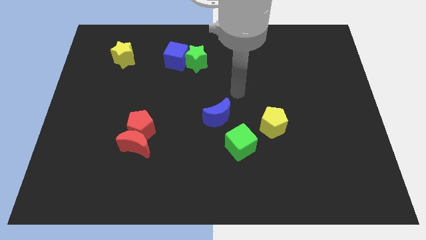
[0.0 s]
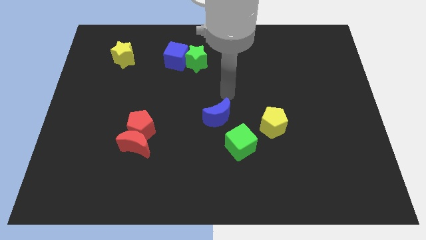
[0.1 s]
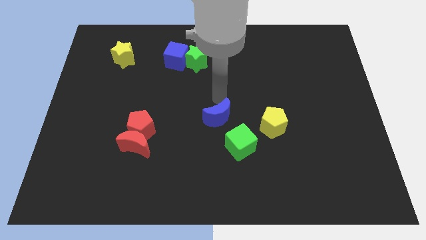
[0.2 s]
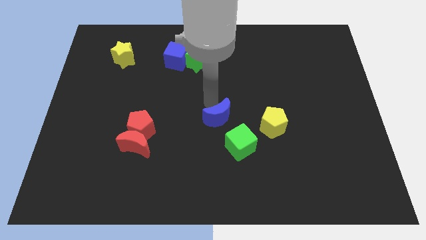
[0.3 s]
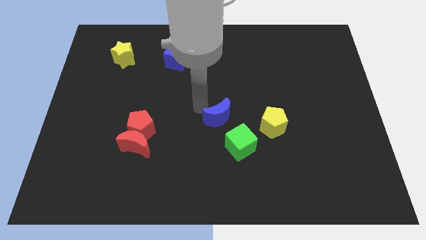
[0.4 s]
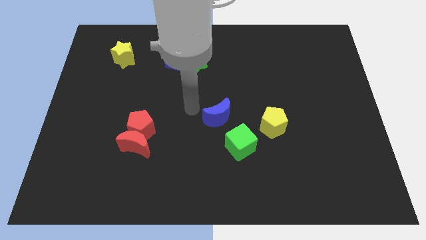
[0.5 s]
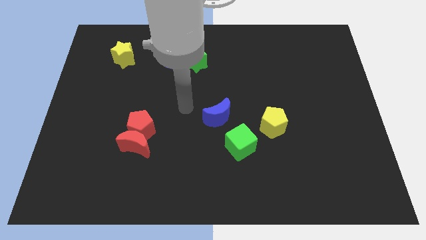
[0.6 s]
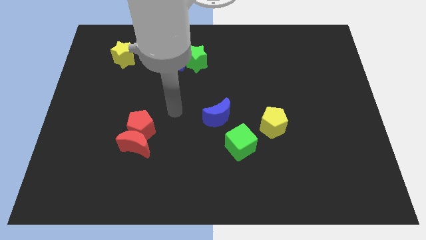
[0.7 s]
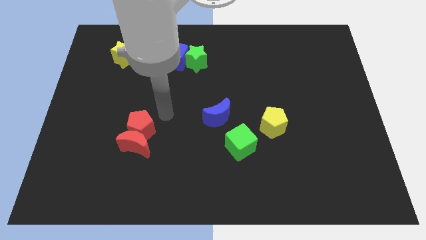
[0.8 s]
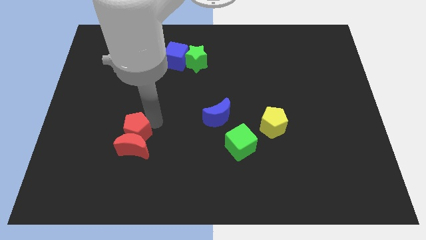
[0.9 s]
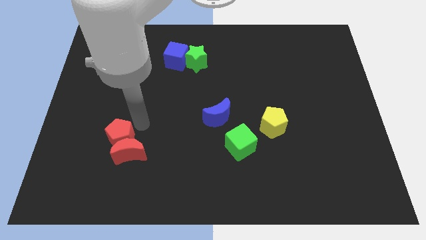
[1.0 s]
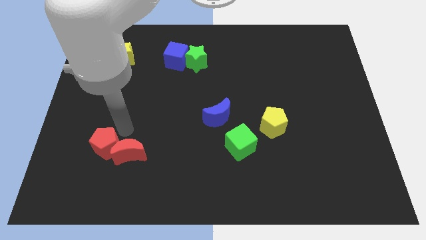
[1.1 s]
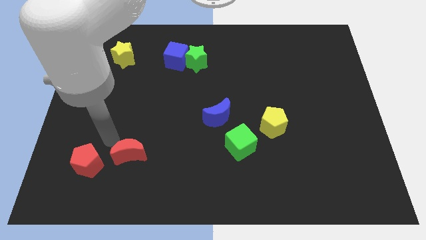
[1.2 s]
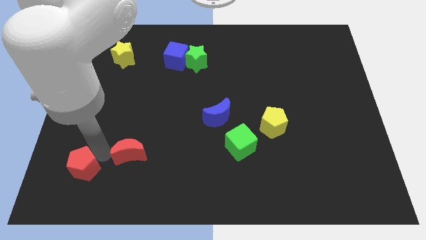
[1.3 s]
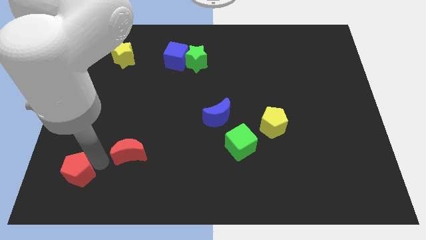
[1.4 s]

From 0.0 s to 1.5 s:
move the red moon away from the red pentagon

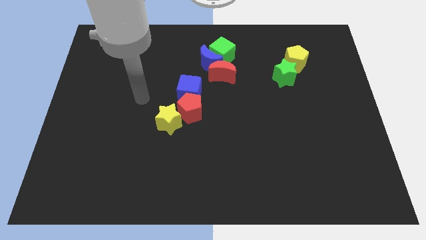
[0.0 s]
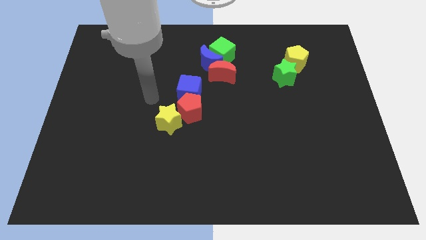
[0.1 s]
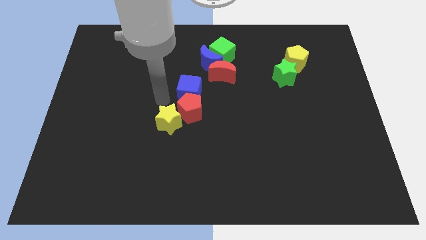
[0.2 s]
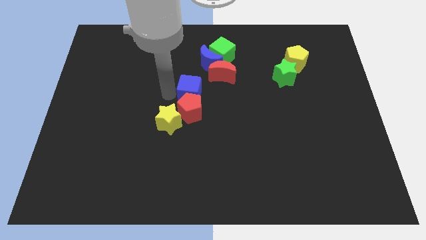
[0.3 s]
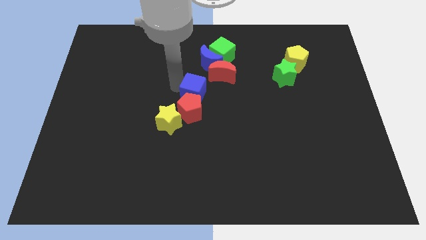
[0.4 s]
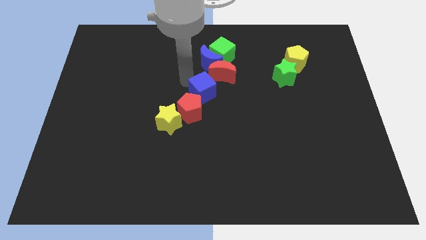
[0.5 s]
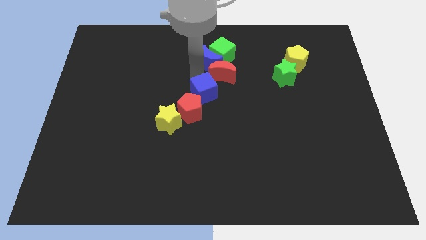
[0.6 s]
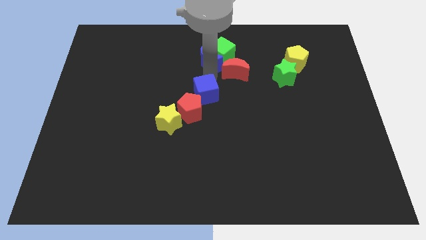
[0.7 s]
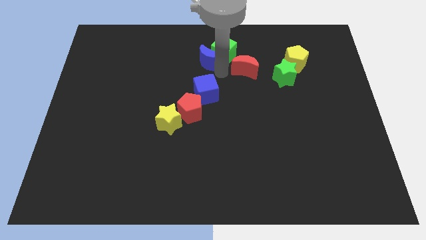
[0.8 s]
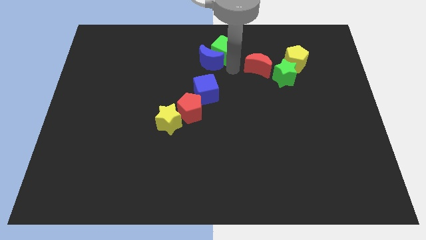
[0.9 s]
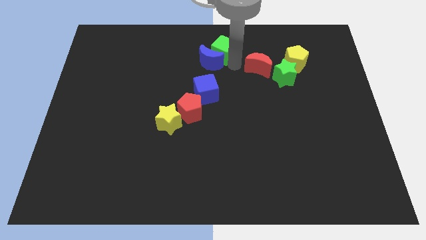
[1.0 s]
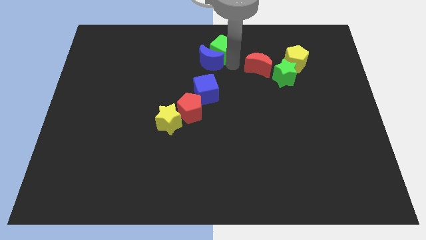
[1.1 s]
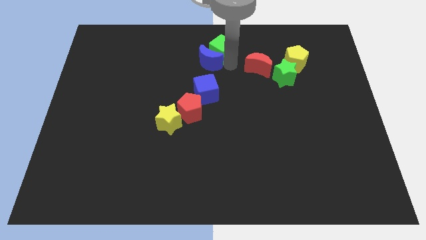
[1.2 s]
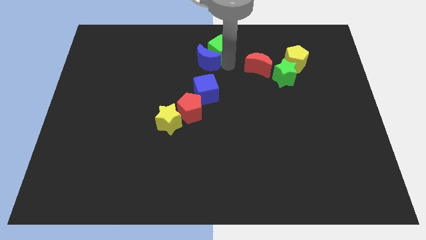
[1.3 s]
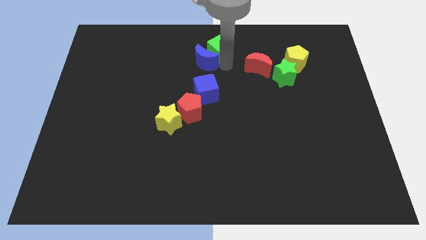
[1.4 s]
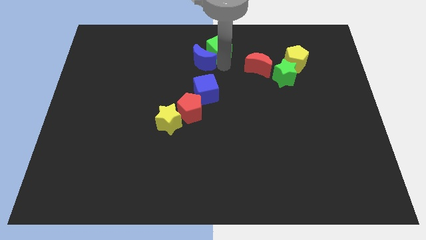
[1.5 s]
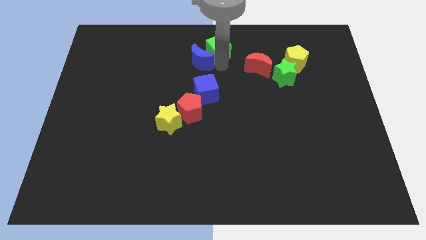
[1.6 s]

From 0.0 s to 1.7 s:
pull the blue moon apart from the green cube and red moon

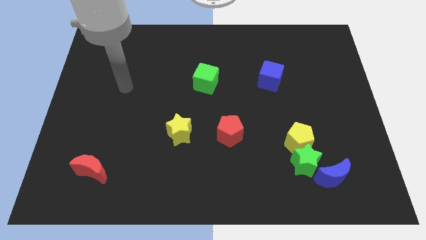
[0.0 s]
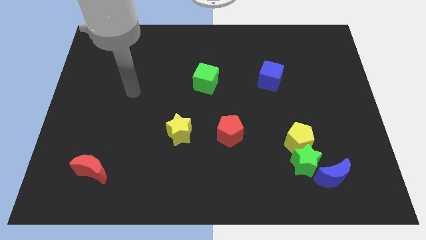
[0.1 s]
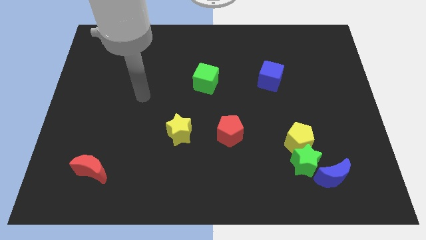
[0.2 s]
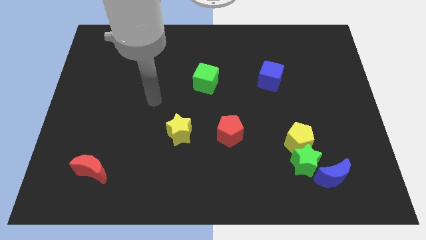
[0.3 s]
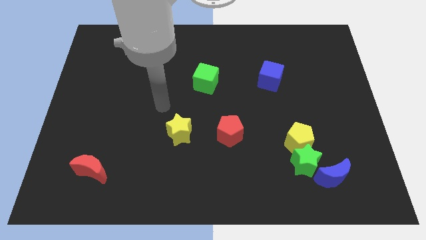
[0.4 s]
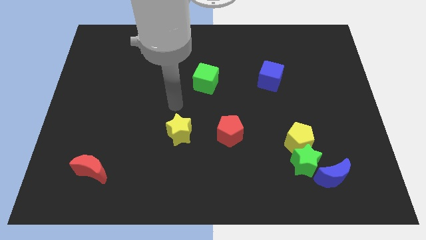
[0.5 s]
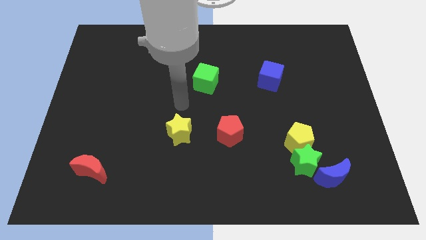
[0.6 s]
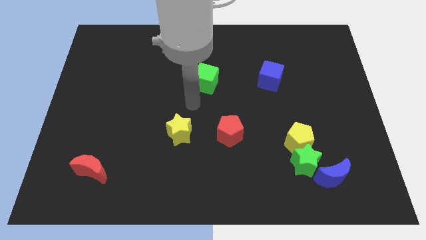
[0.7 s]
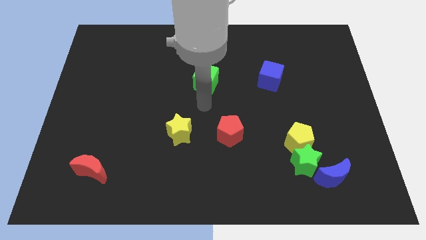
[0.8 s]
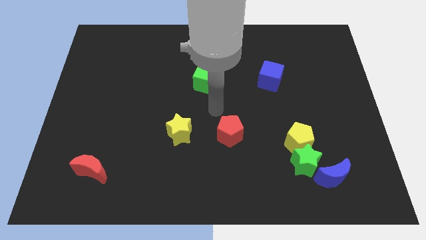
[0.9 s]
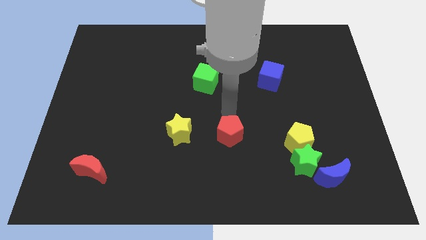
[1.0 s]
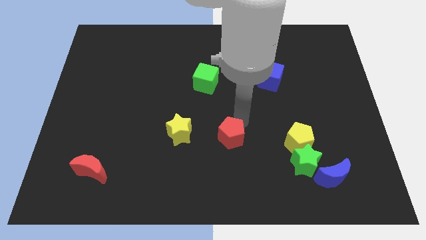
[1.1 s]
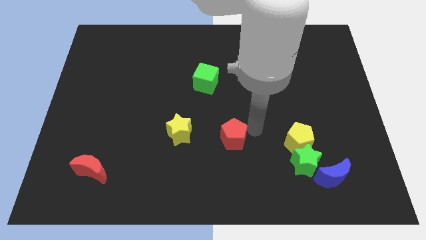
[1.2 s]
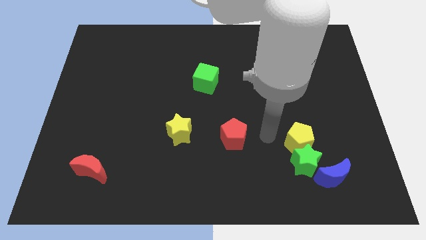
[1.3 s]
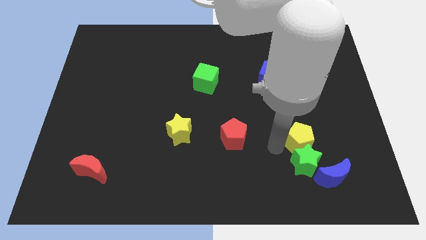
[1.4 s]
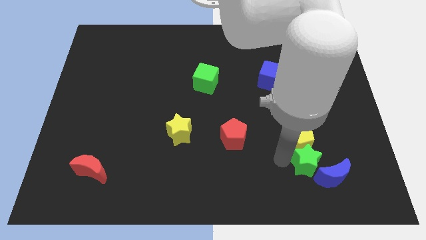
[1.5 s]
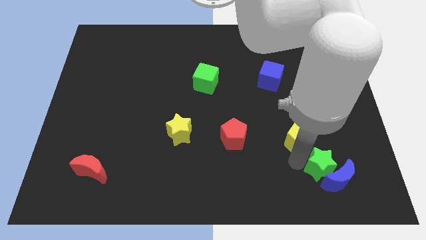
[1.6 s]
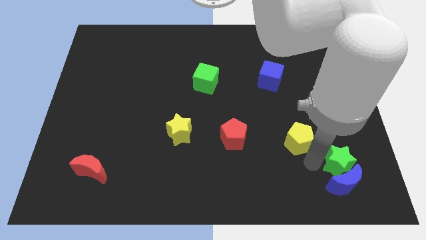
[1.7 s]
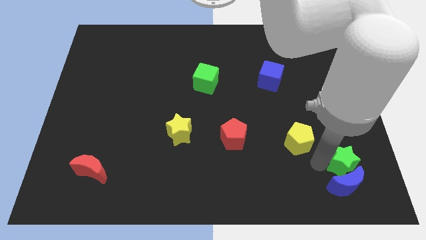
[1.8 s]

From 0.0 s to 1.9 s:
move the yellow pentagon away from the green star

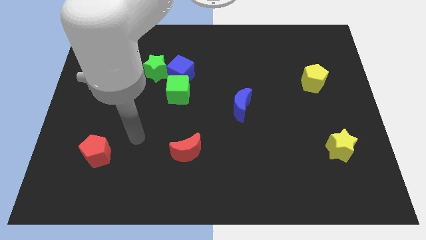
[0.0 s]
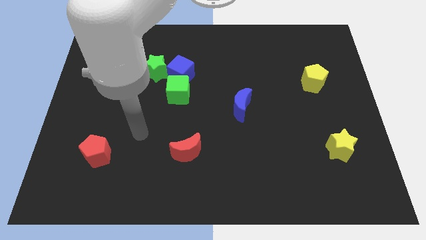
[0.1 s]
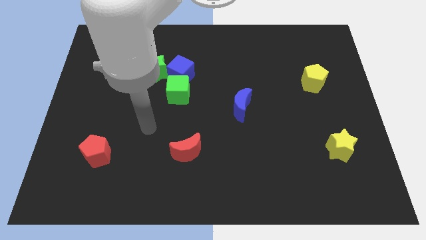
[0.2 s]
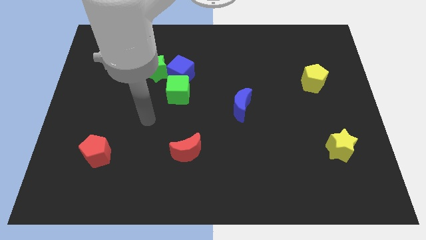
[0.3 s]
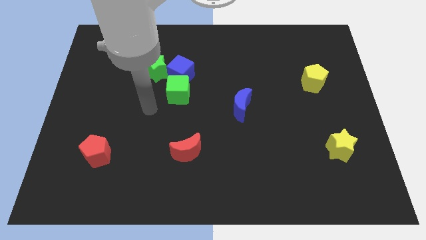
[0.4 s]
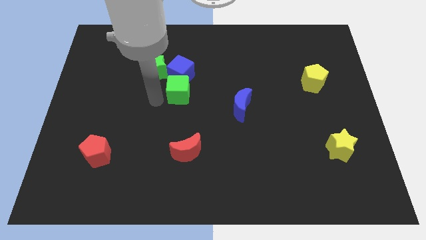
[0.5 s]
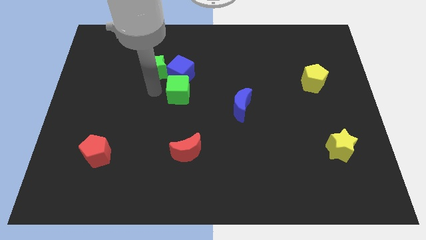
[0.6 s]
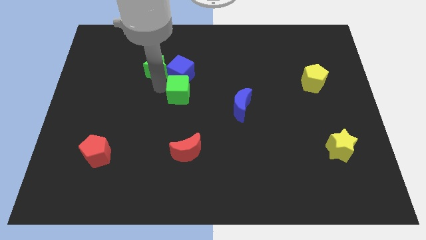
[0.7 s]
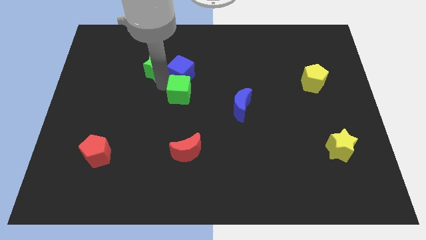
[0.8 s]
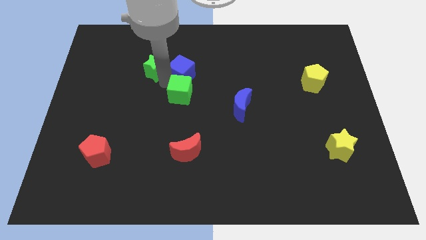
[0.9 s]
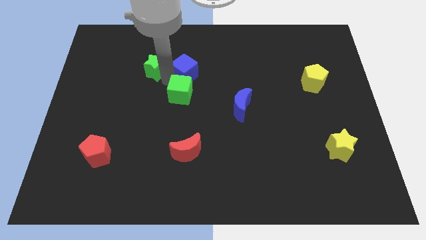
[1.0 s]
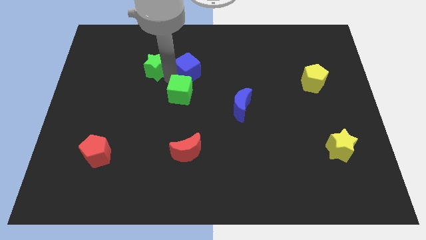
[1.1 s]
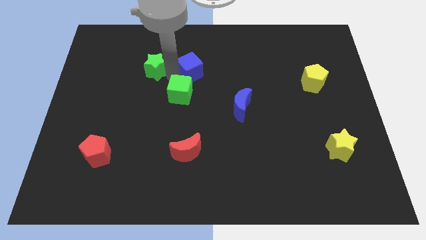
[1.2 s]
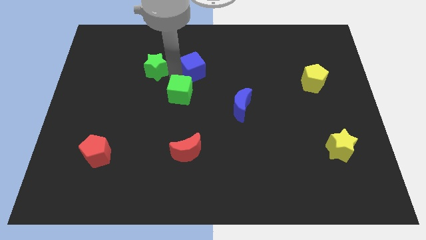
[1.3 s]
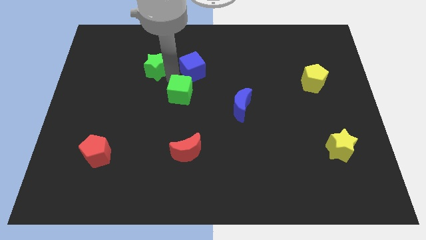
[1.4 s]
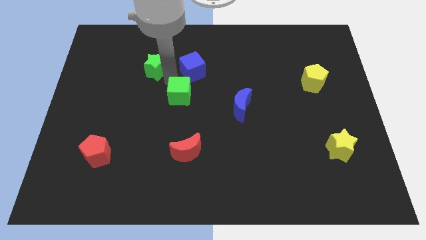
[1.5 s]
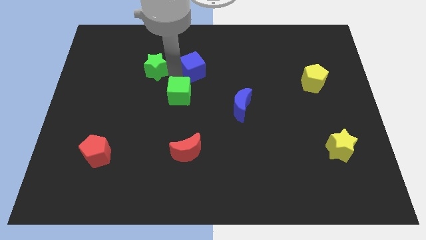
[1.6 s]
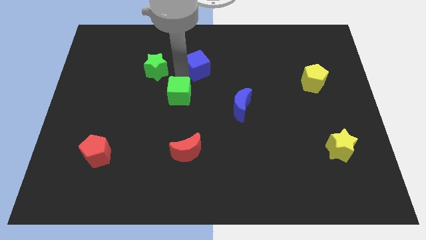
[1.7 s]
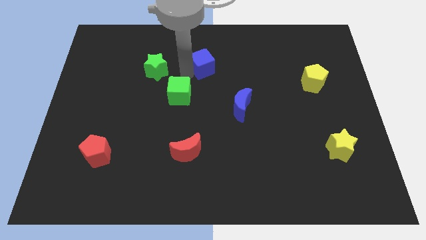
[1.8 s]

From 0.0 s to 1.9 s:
move the blue cube away from the green cube and green star

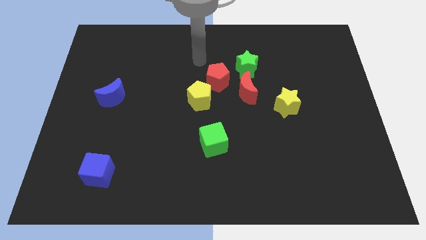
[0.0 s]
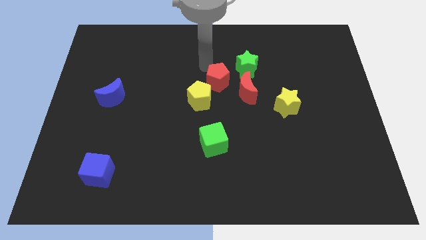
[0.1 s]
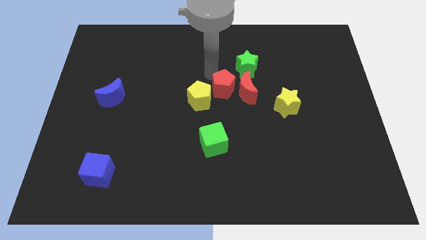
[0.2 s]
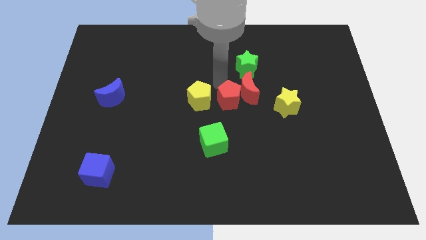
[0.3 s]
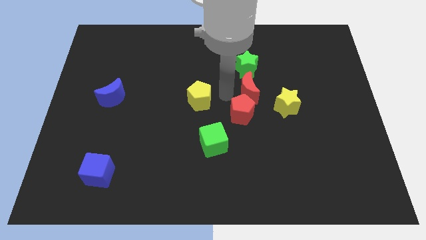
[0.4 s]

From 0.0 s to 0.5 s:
separate the yellow pentagon from the red pentagon

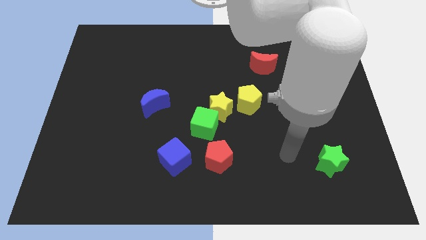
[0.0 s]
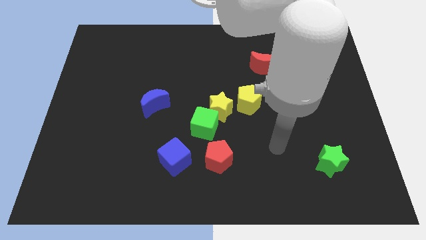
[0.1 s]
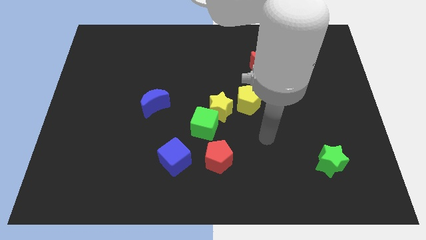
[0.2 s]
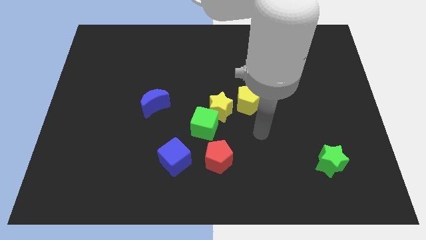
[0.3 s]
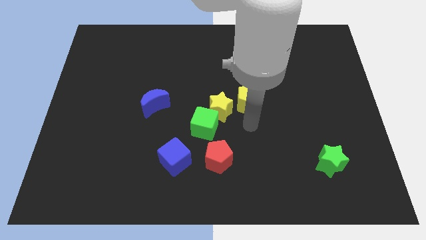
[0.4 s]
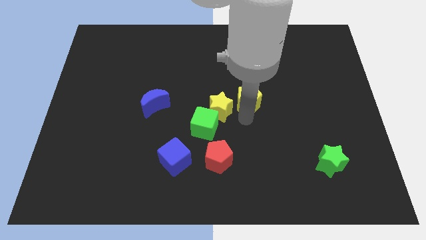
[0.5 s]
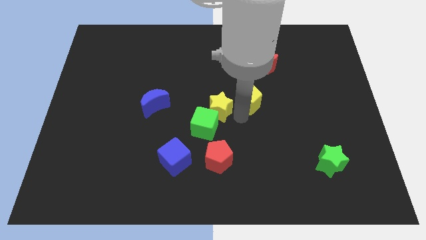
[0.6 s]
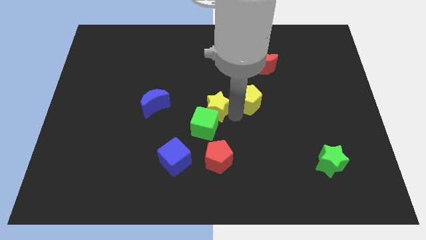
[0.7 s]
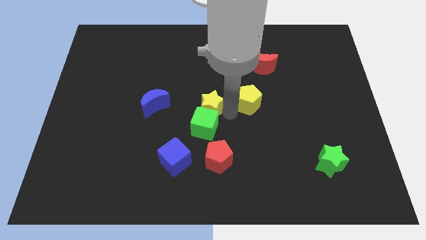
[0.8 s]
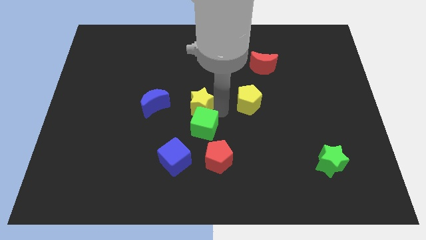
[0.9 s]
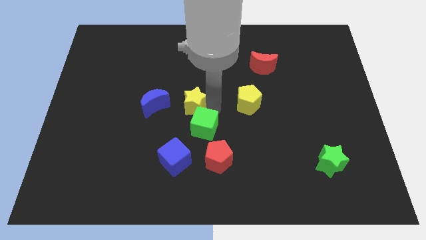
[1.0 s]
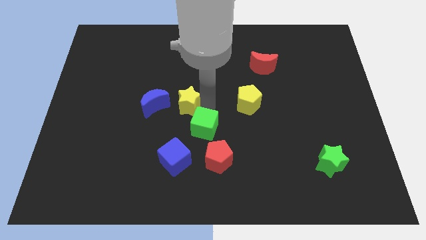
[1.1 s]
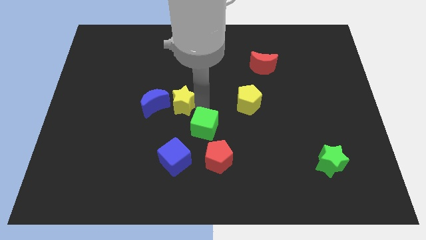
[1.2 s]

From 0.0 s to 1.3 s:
separate the yellow star from the green cube and yellow pentagon

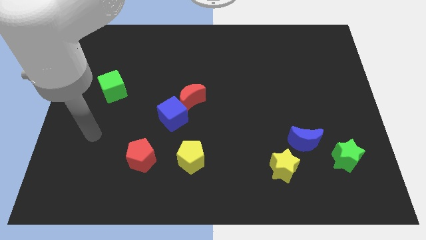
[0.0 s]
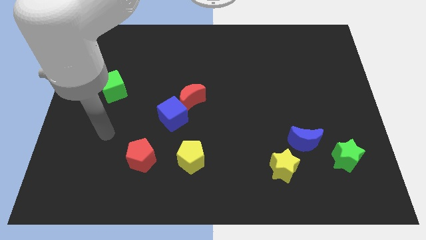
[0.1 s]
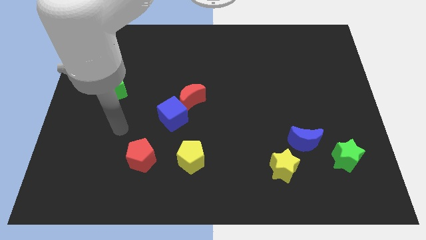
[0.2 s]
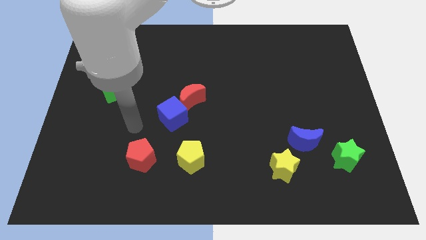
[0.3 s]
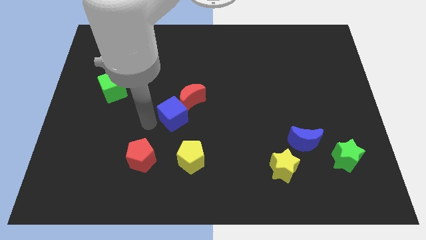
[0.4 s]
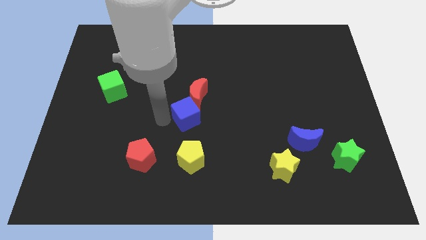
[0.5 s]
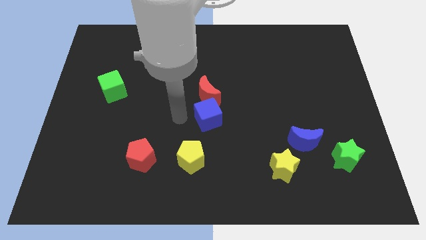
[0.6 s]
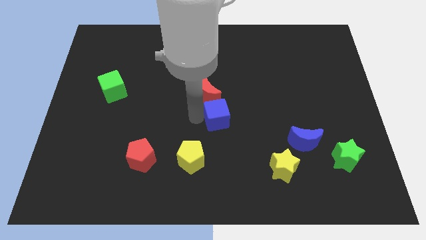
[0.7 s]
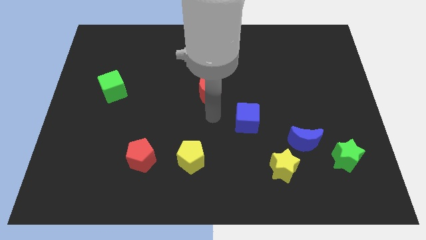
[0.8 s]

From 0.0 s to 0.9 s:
separate the red moon from the blue cube
